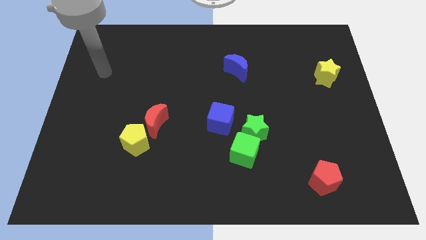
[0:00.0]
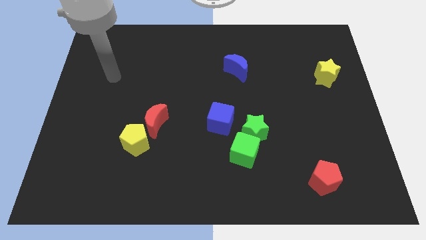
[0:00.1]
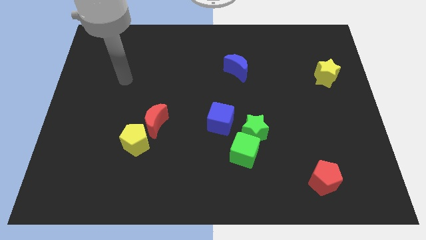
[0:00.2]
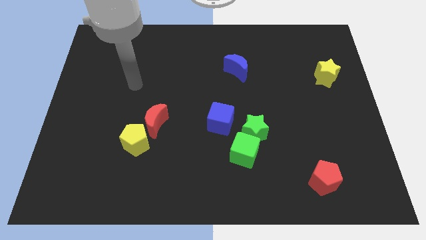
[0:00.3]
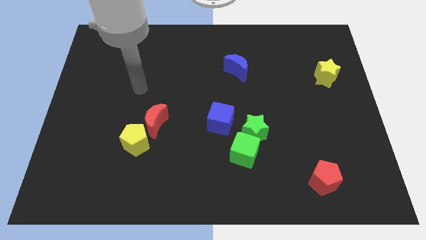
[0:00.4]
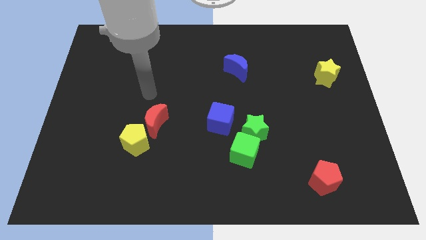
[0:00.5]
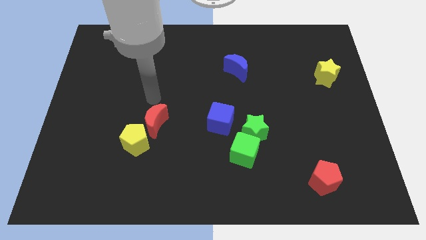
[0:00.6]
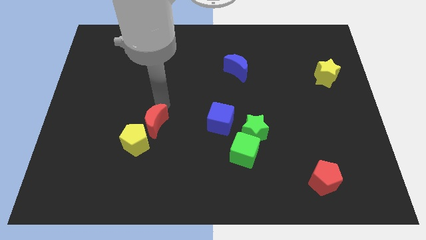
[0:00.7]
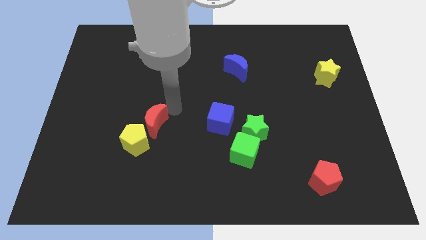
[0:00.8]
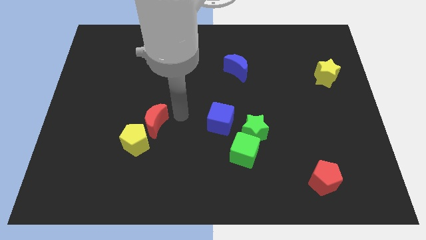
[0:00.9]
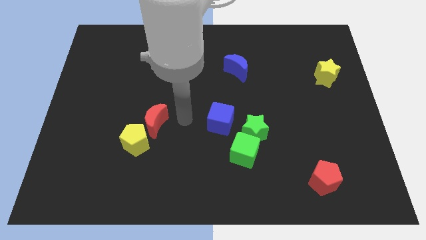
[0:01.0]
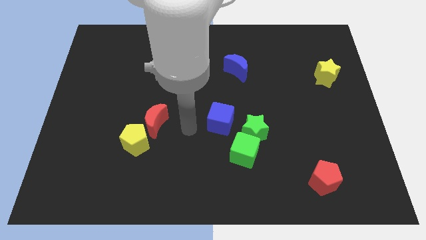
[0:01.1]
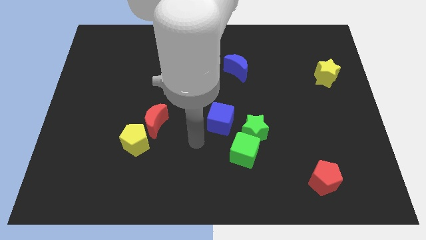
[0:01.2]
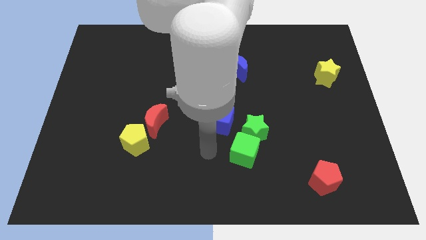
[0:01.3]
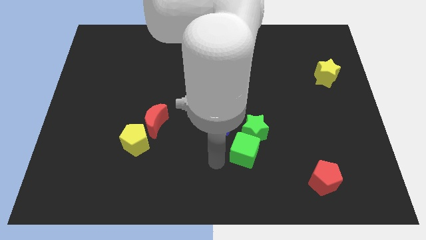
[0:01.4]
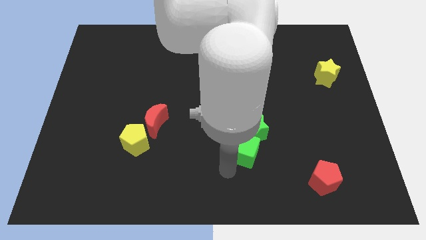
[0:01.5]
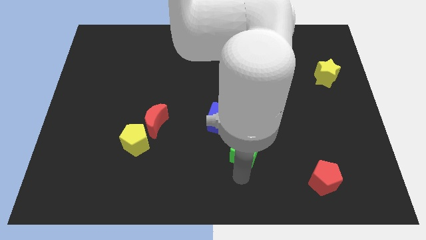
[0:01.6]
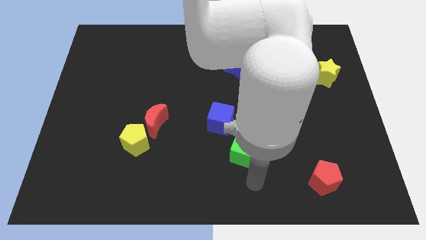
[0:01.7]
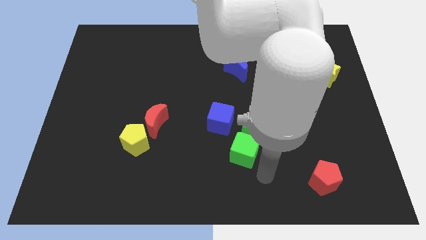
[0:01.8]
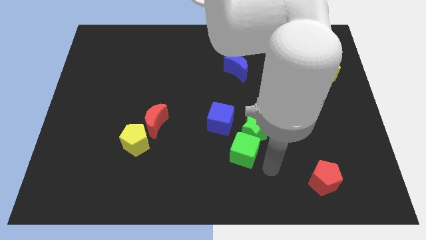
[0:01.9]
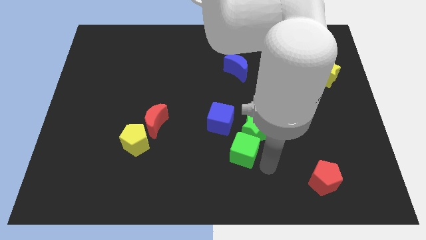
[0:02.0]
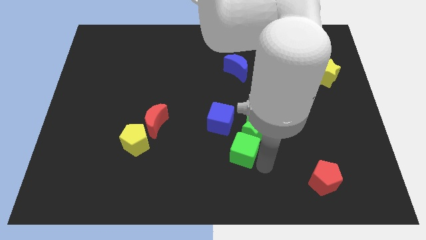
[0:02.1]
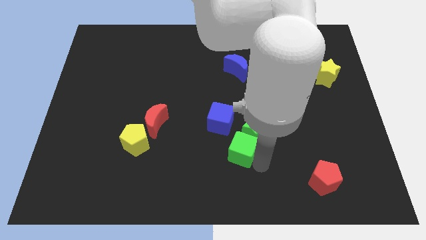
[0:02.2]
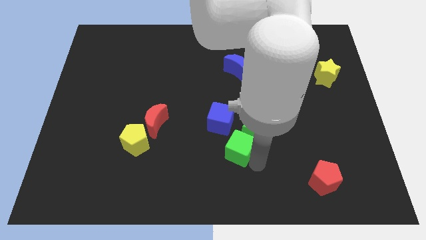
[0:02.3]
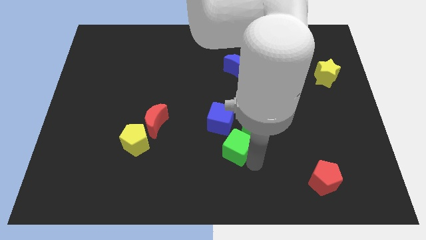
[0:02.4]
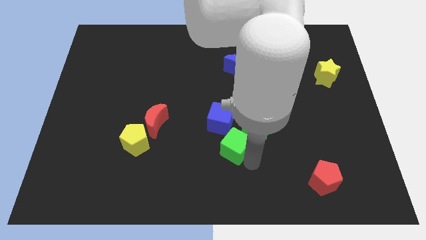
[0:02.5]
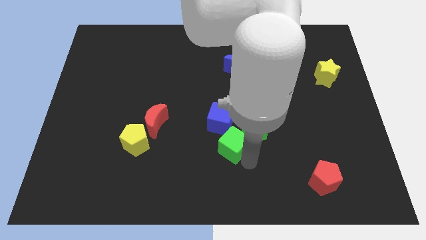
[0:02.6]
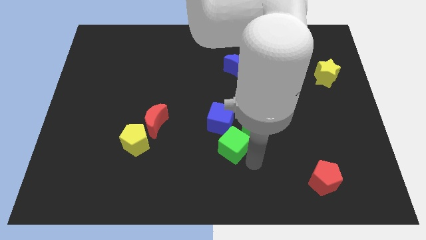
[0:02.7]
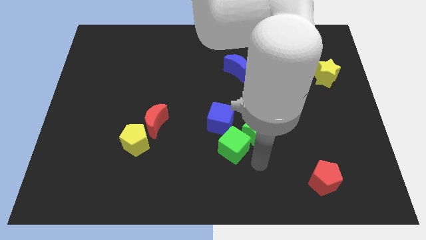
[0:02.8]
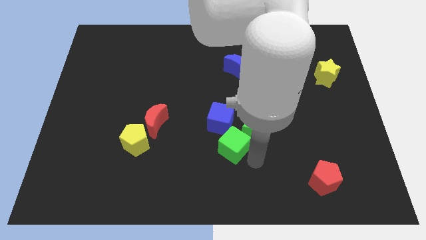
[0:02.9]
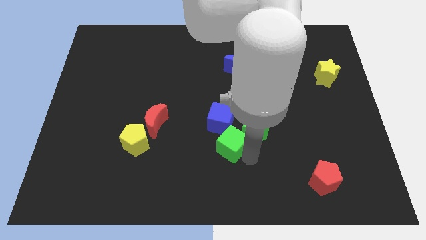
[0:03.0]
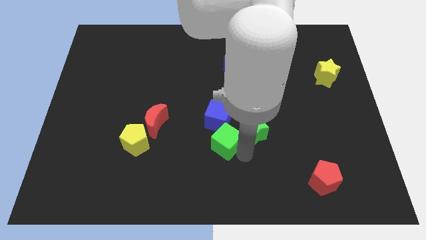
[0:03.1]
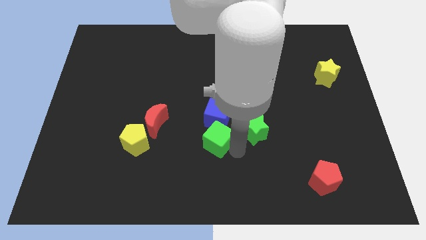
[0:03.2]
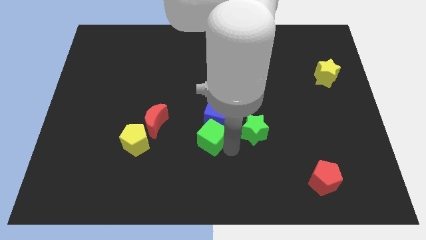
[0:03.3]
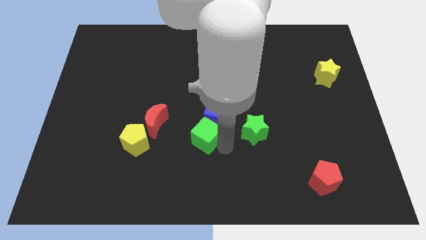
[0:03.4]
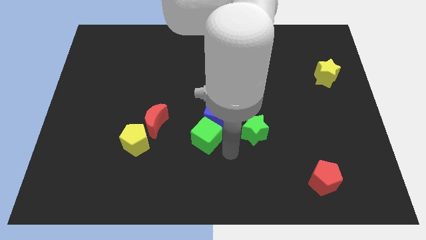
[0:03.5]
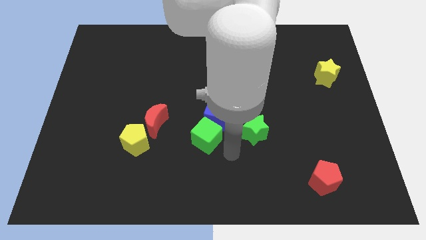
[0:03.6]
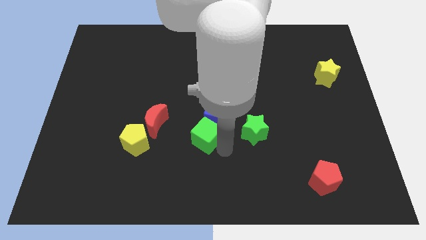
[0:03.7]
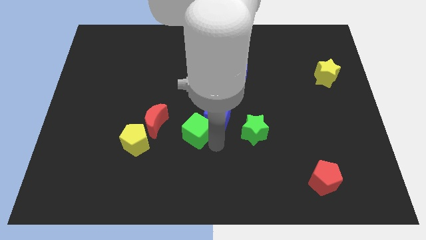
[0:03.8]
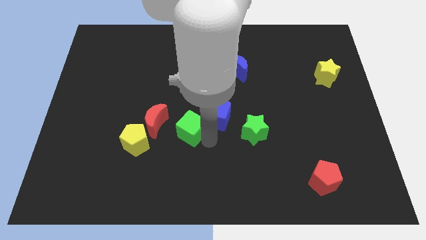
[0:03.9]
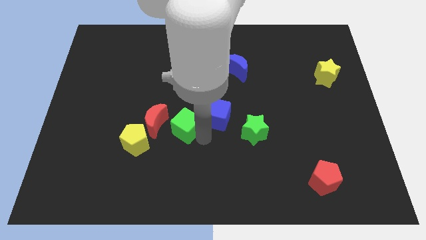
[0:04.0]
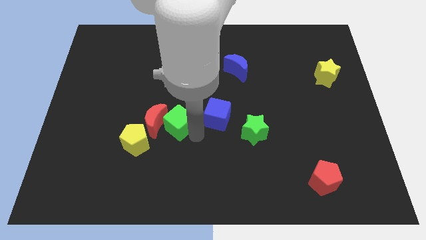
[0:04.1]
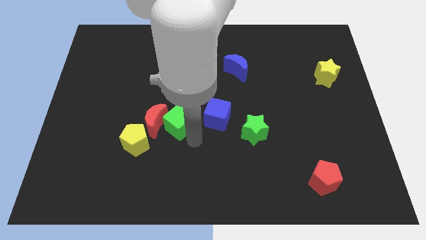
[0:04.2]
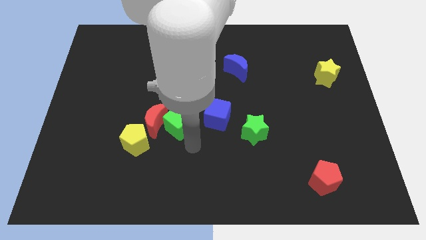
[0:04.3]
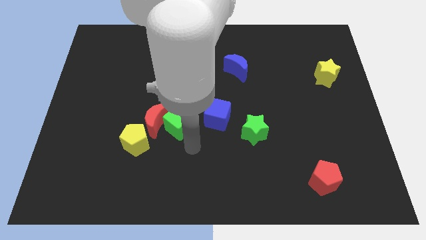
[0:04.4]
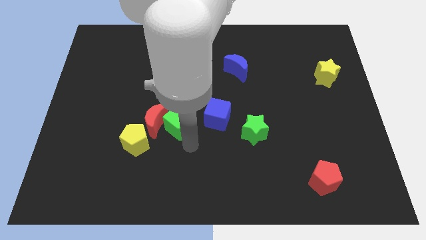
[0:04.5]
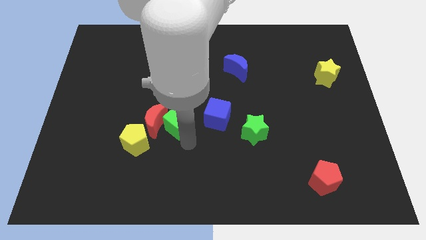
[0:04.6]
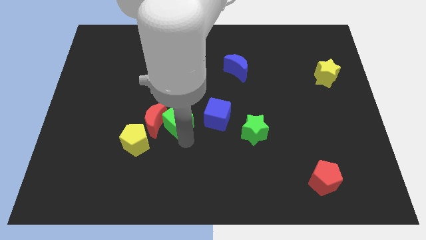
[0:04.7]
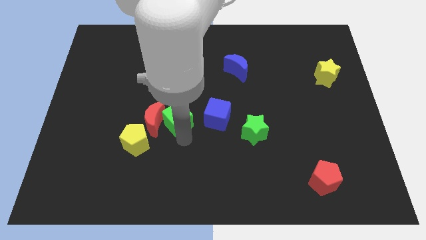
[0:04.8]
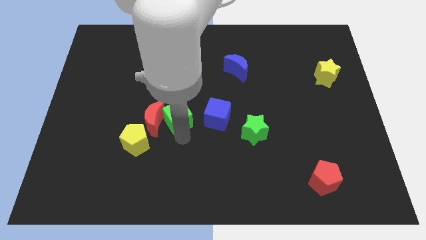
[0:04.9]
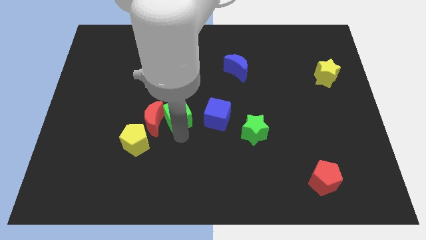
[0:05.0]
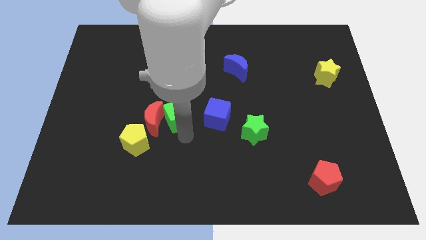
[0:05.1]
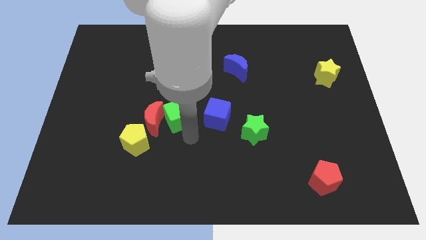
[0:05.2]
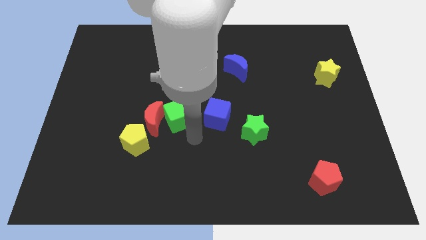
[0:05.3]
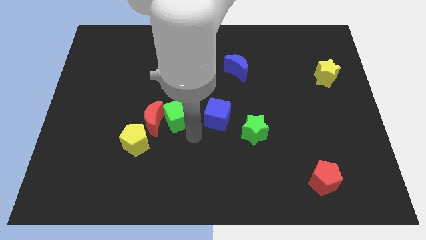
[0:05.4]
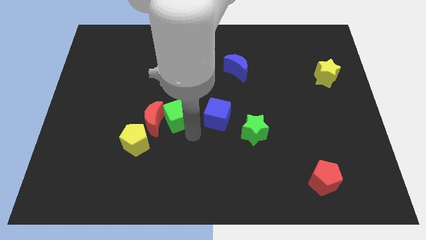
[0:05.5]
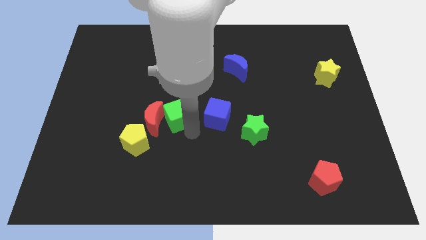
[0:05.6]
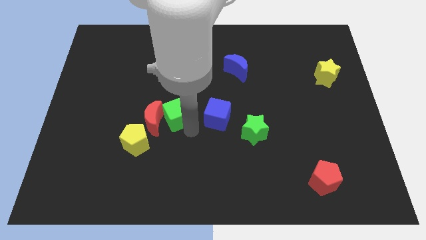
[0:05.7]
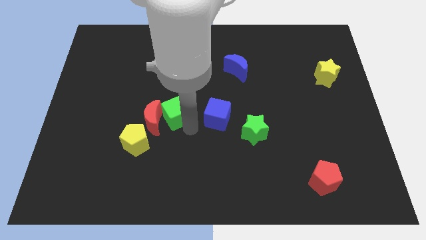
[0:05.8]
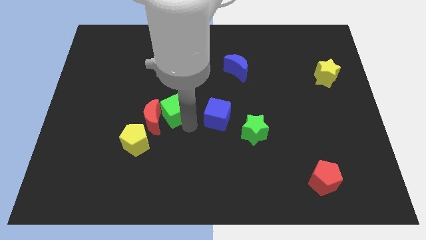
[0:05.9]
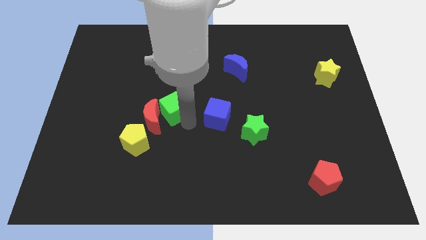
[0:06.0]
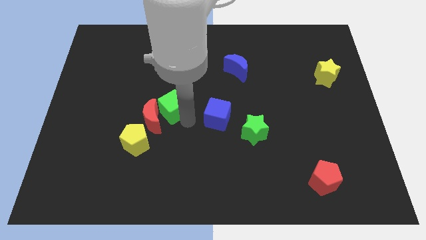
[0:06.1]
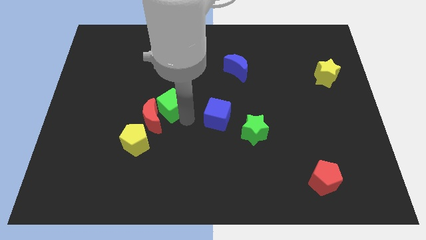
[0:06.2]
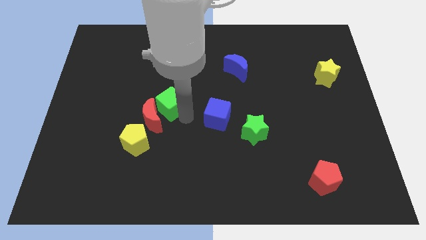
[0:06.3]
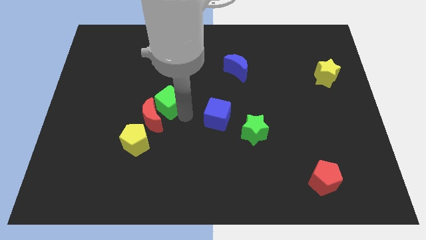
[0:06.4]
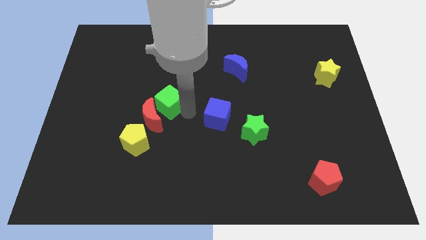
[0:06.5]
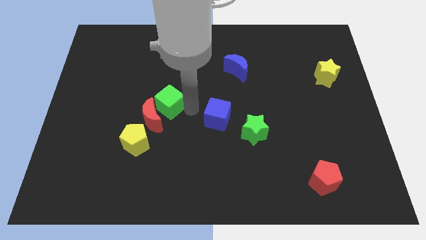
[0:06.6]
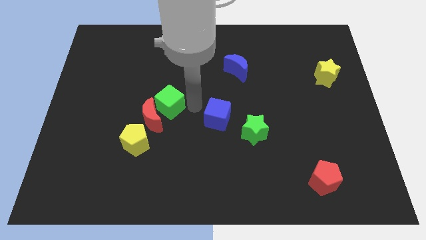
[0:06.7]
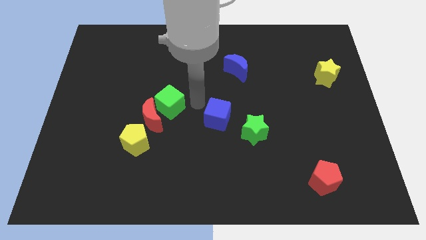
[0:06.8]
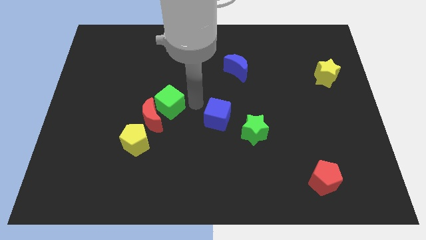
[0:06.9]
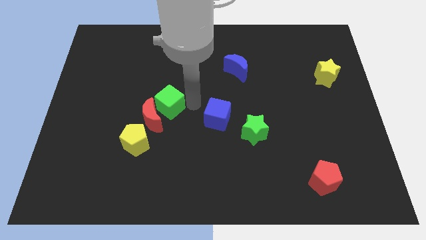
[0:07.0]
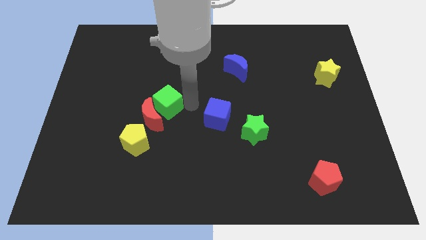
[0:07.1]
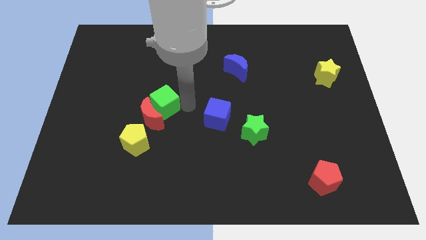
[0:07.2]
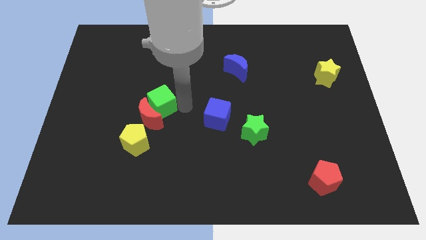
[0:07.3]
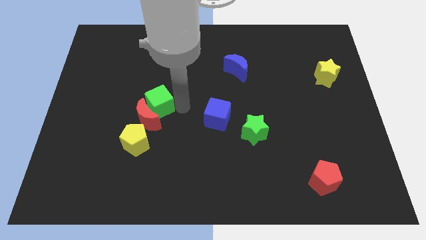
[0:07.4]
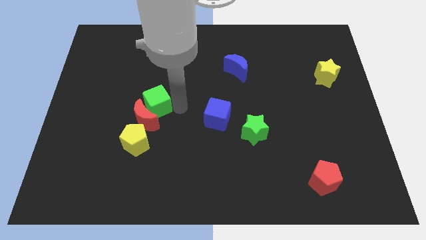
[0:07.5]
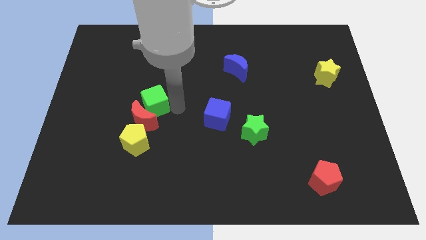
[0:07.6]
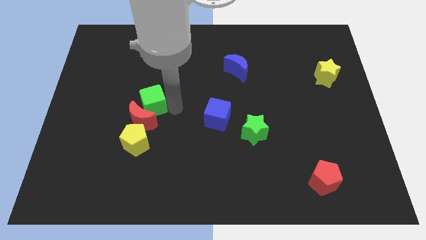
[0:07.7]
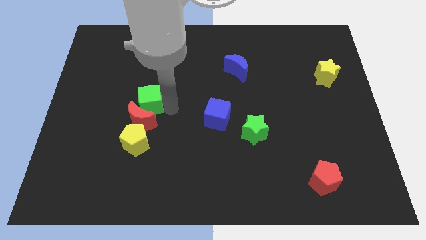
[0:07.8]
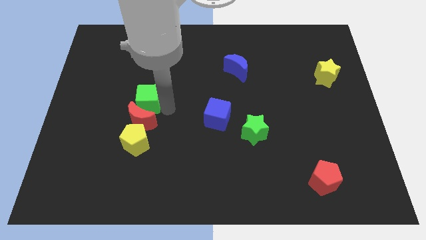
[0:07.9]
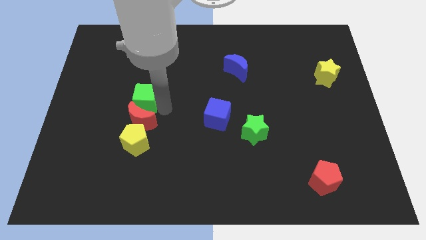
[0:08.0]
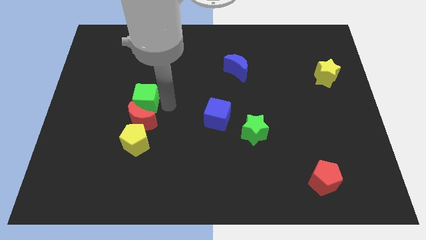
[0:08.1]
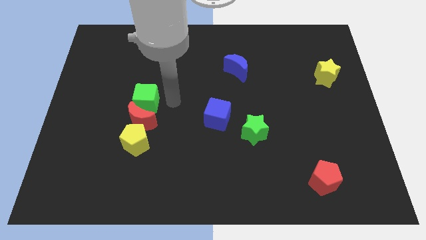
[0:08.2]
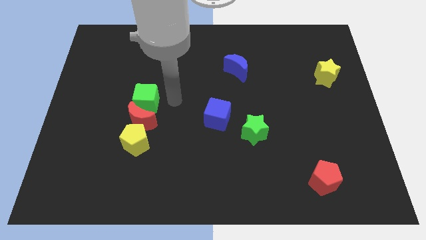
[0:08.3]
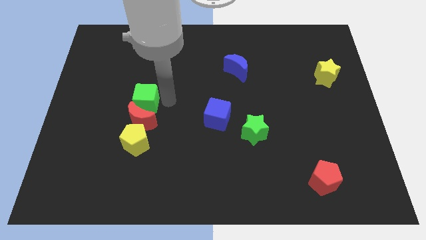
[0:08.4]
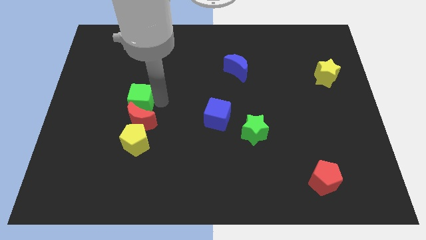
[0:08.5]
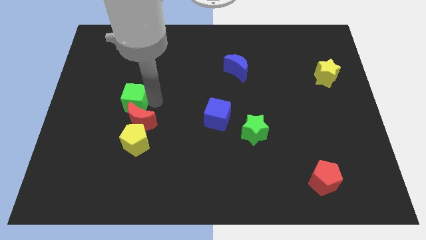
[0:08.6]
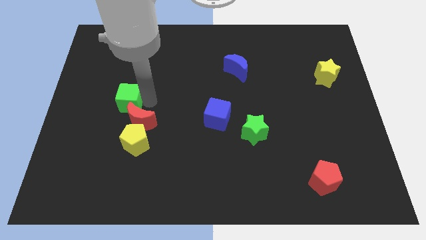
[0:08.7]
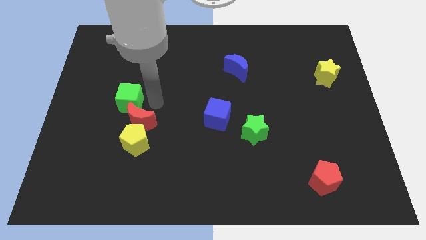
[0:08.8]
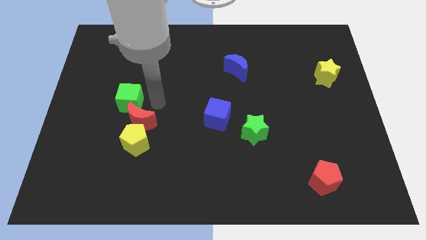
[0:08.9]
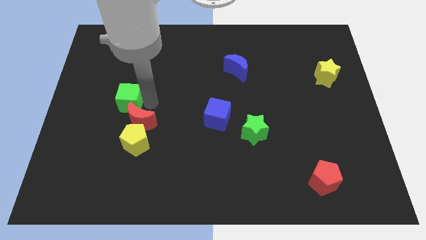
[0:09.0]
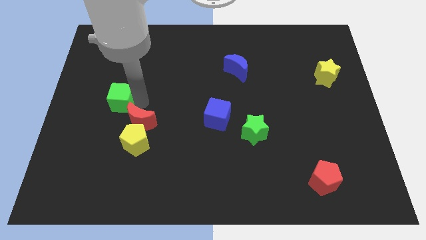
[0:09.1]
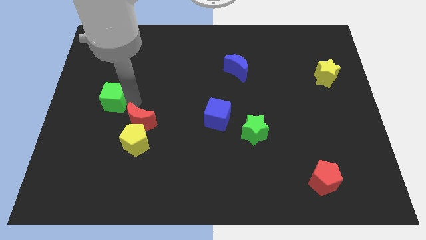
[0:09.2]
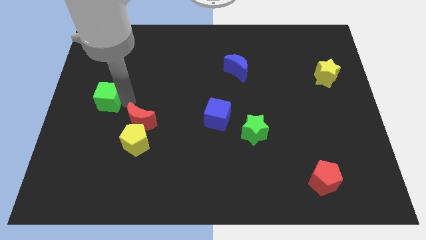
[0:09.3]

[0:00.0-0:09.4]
move the green cube to the left side
